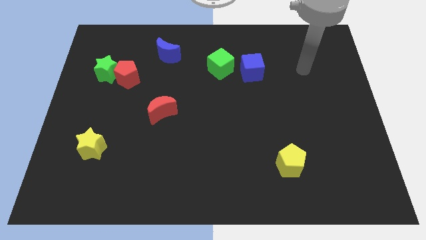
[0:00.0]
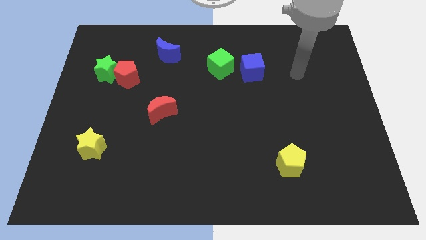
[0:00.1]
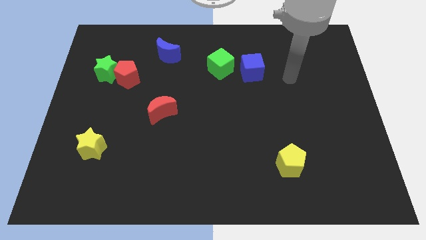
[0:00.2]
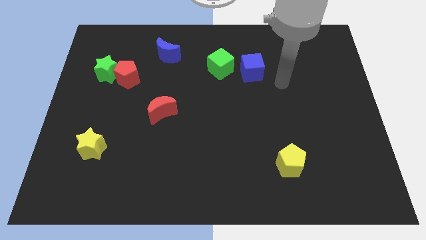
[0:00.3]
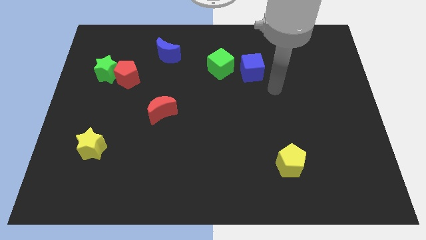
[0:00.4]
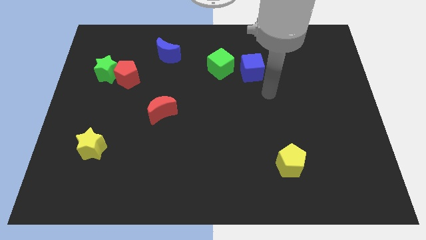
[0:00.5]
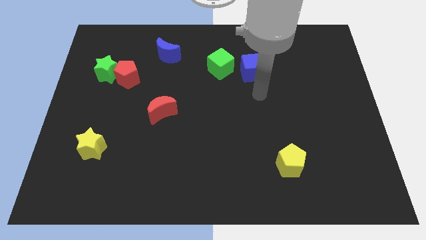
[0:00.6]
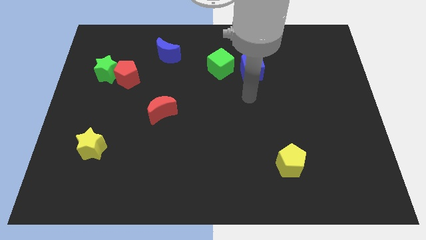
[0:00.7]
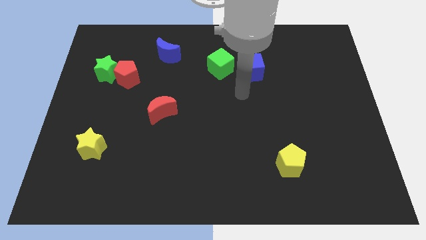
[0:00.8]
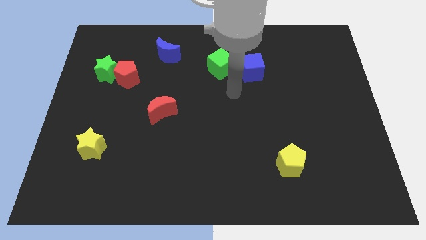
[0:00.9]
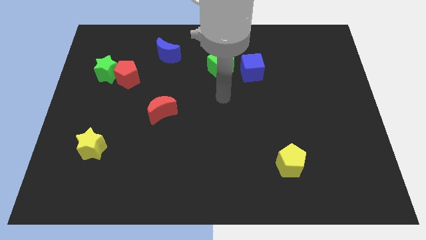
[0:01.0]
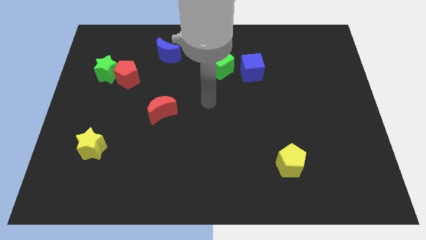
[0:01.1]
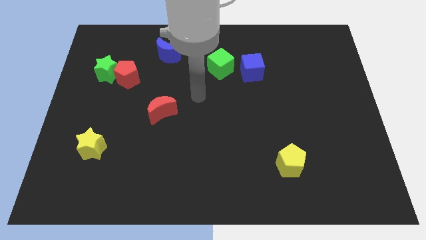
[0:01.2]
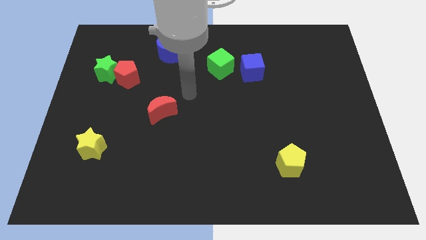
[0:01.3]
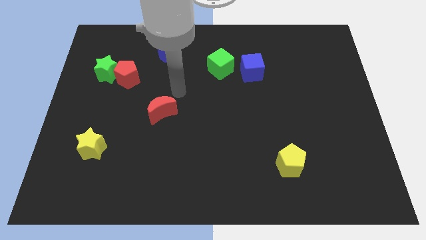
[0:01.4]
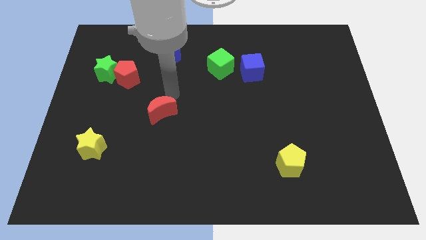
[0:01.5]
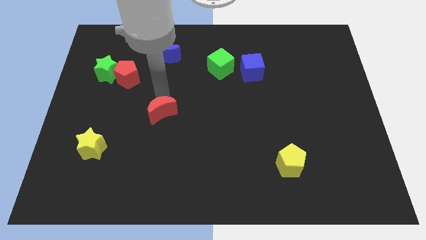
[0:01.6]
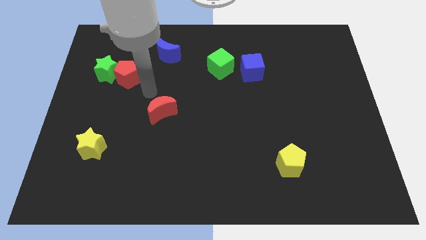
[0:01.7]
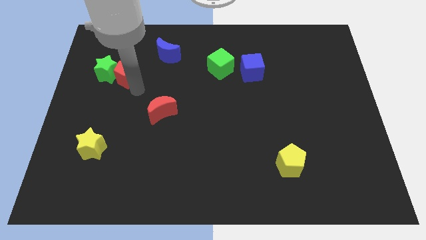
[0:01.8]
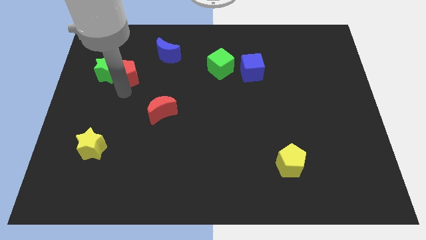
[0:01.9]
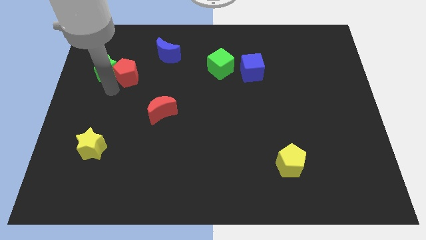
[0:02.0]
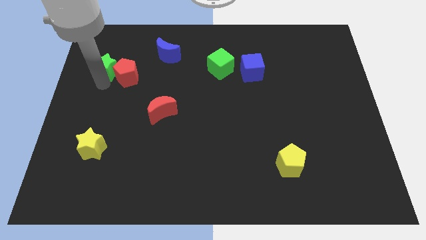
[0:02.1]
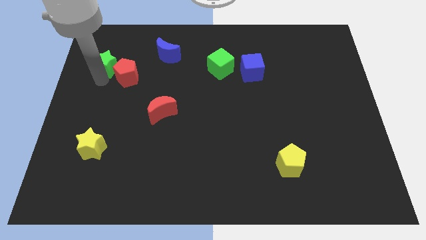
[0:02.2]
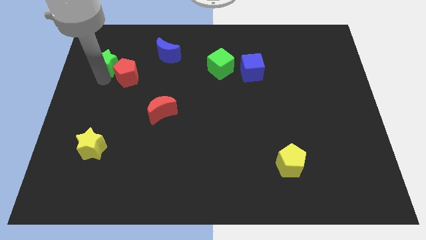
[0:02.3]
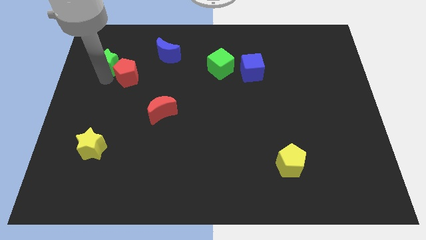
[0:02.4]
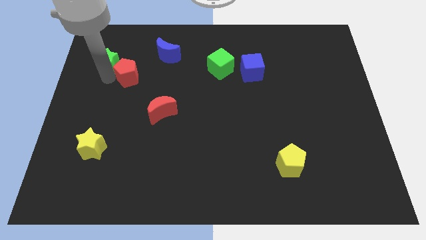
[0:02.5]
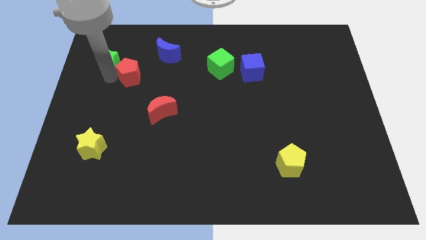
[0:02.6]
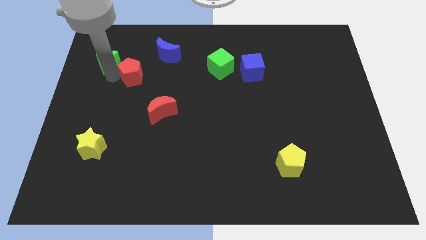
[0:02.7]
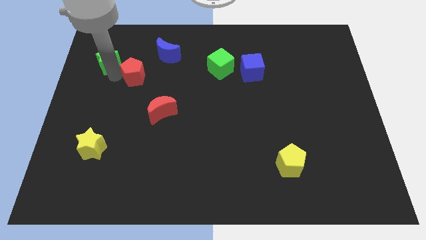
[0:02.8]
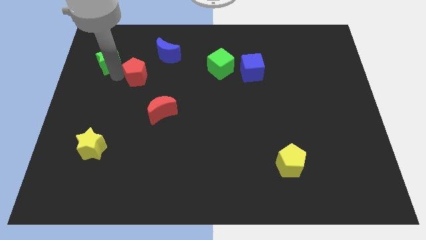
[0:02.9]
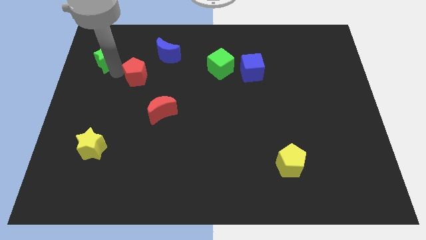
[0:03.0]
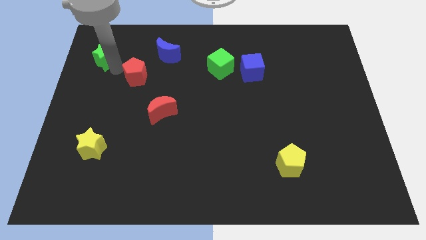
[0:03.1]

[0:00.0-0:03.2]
move the red pentagon away from the green star

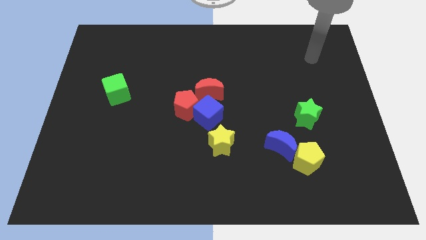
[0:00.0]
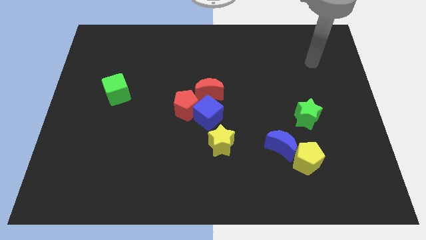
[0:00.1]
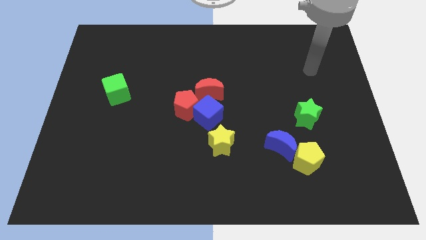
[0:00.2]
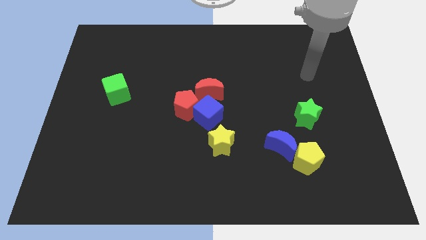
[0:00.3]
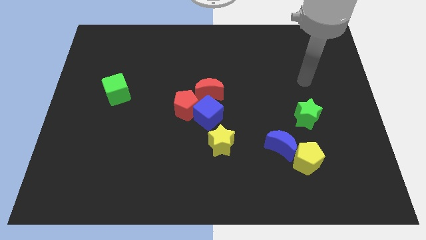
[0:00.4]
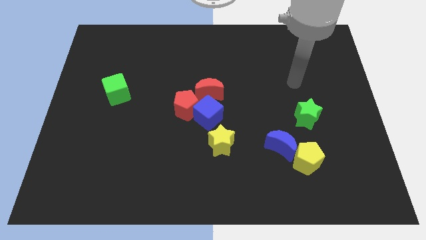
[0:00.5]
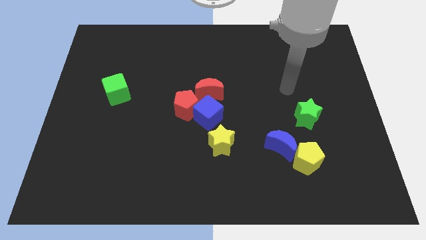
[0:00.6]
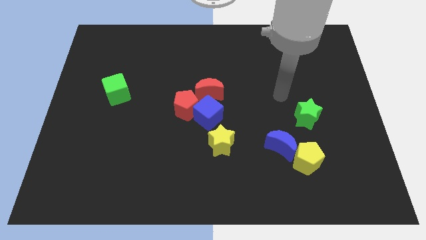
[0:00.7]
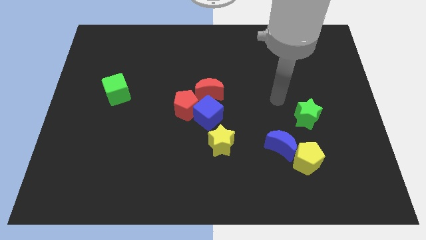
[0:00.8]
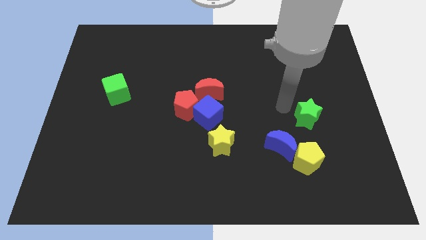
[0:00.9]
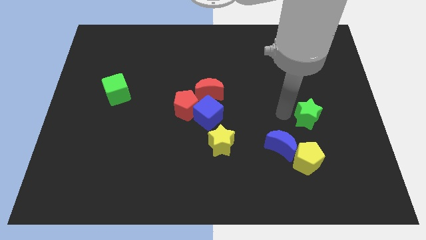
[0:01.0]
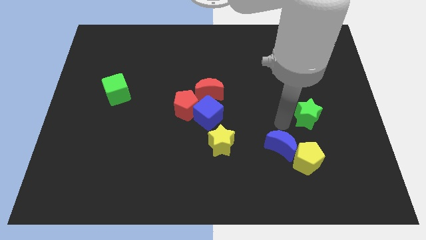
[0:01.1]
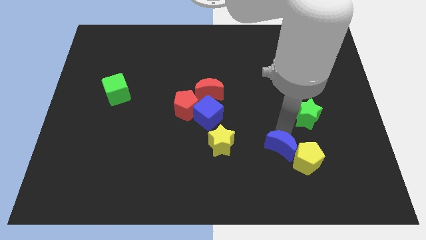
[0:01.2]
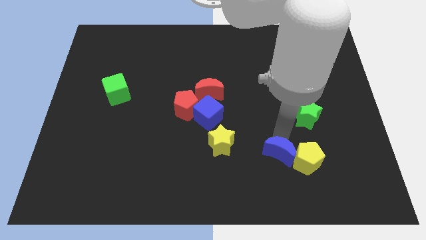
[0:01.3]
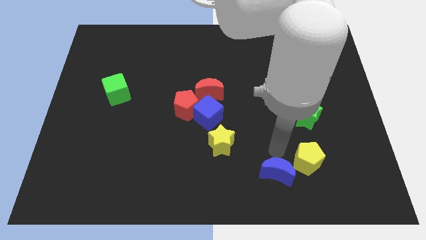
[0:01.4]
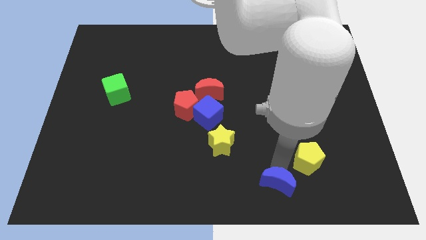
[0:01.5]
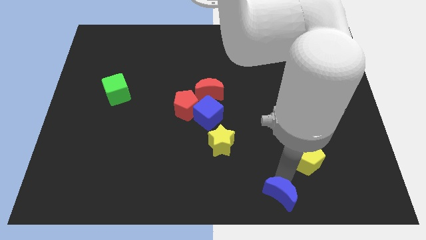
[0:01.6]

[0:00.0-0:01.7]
move the yellow pentagon away from the blue moon

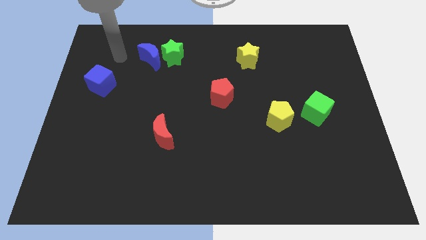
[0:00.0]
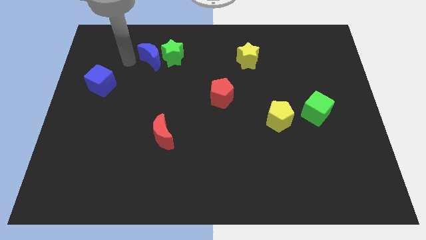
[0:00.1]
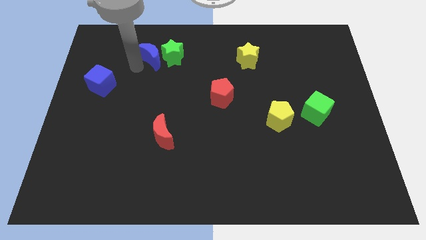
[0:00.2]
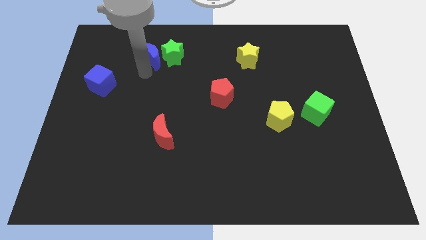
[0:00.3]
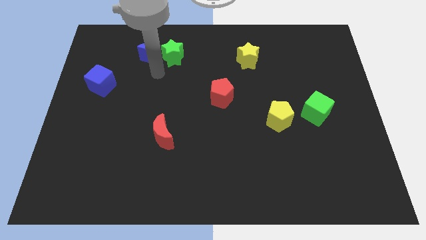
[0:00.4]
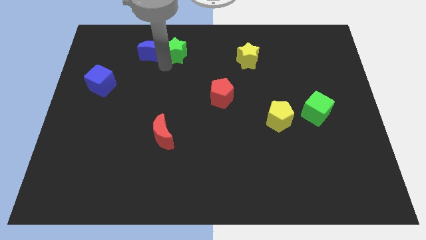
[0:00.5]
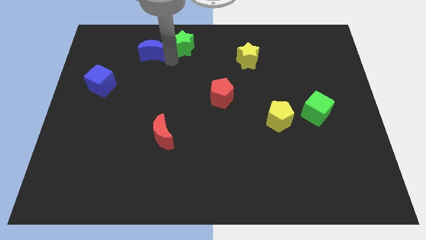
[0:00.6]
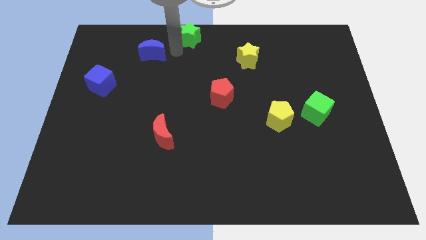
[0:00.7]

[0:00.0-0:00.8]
pull the blue moon apart from the green star

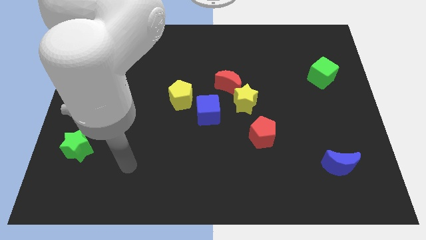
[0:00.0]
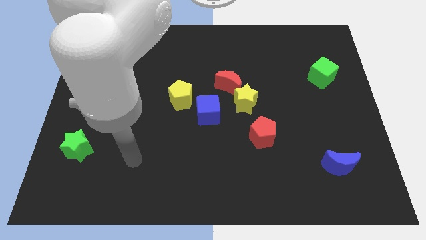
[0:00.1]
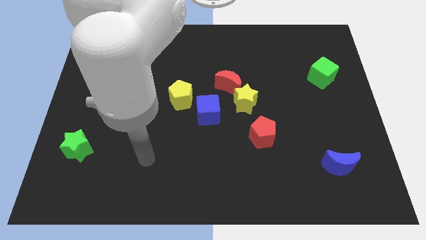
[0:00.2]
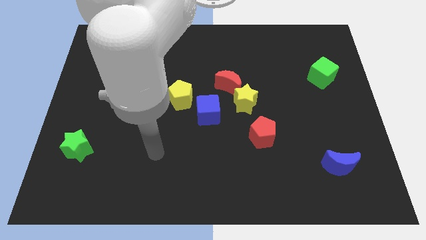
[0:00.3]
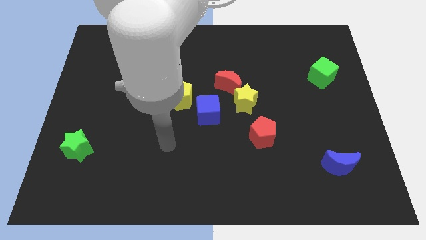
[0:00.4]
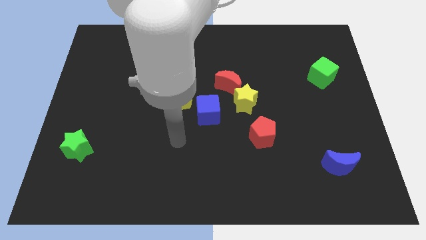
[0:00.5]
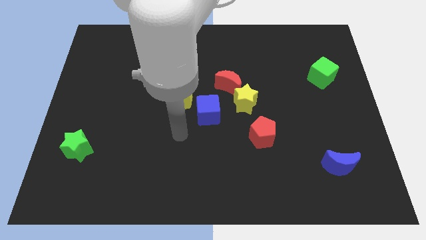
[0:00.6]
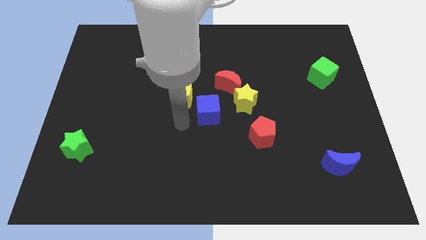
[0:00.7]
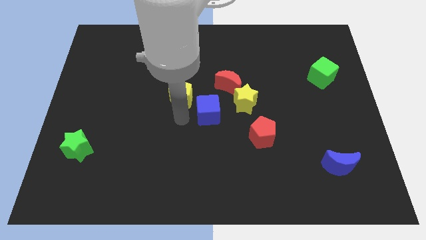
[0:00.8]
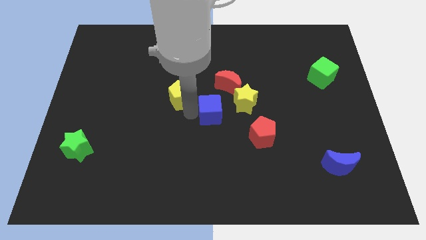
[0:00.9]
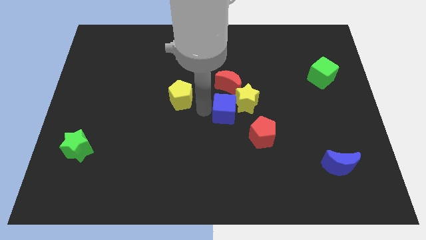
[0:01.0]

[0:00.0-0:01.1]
pull the yellow pentagon apart from the blue cube

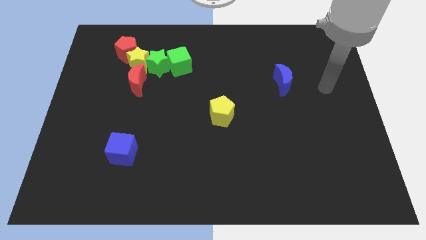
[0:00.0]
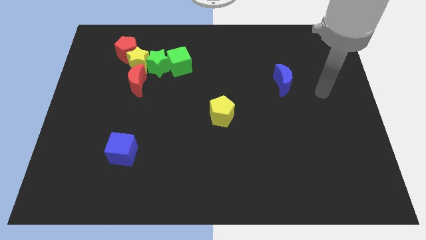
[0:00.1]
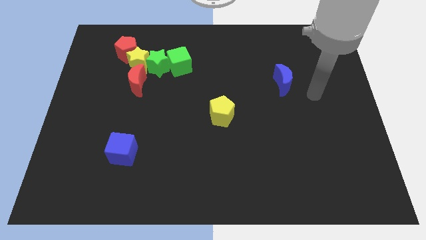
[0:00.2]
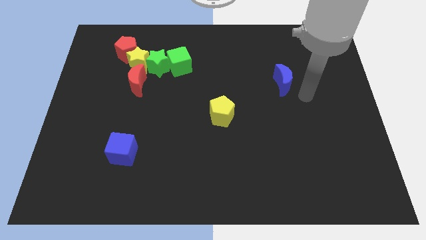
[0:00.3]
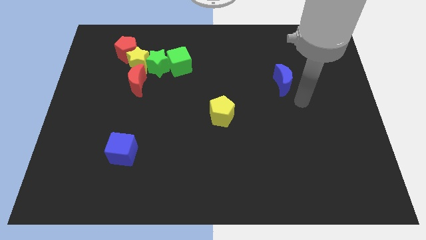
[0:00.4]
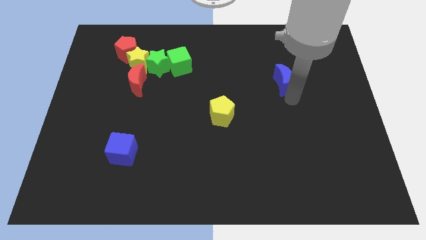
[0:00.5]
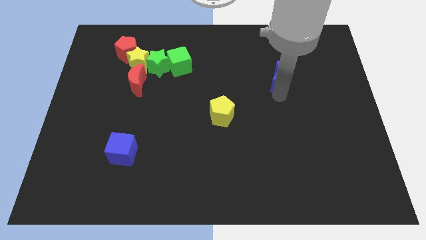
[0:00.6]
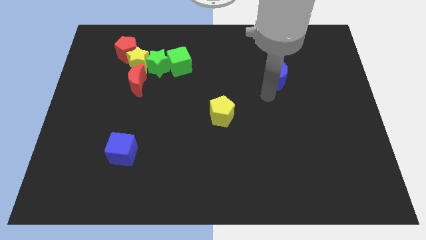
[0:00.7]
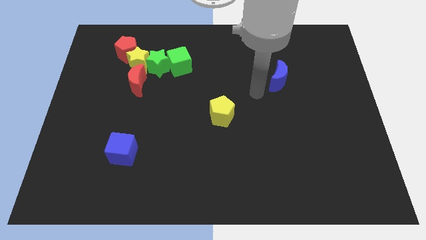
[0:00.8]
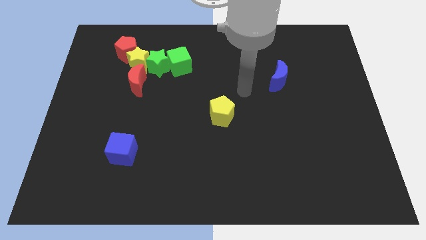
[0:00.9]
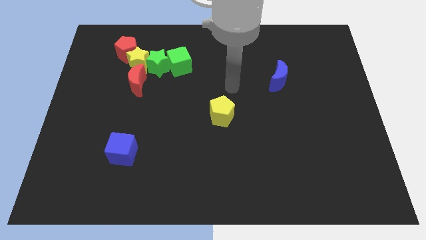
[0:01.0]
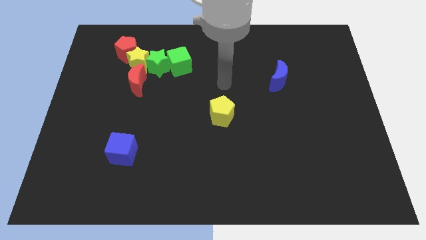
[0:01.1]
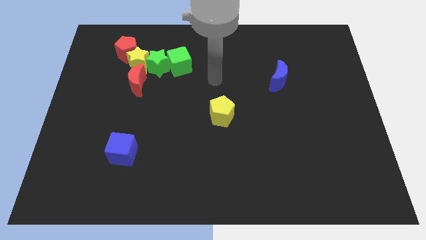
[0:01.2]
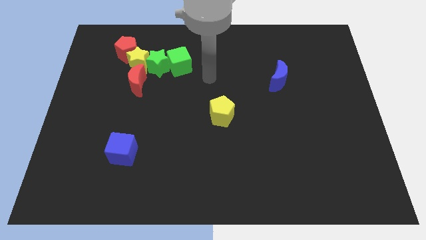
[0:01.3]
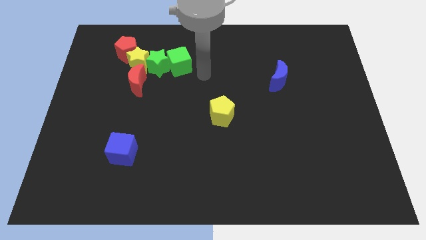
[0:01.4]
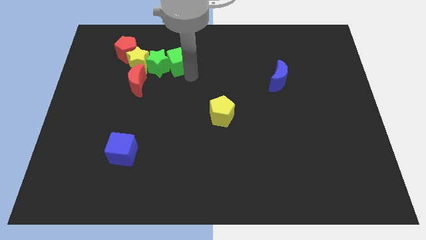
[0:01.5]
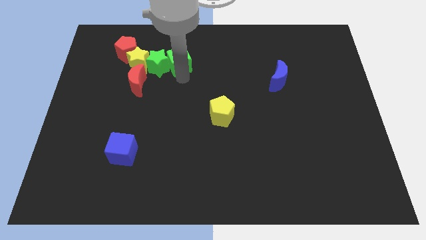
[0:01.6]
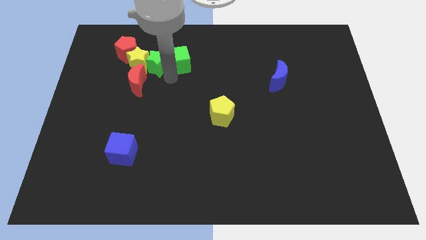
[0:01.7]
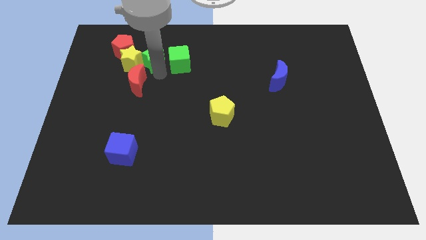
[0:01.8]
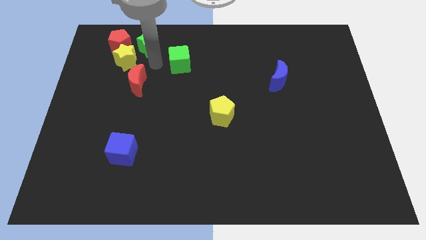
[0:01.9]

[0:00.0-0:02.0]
move the green cube away from the green star

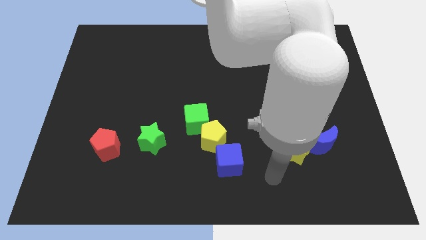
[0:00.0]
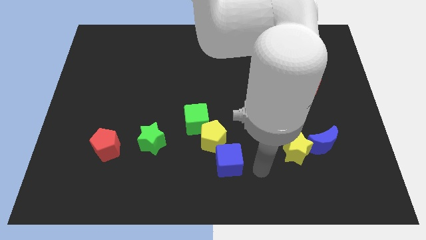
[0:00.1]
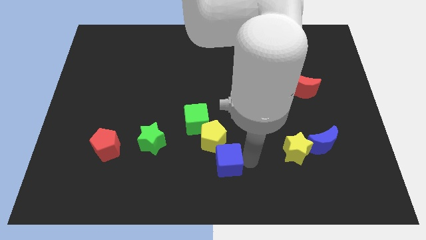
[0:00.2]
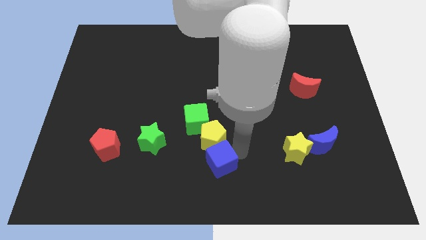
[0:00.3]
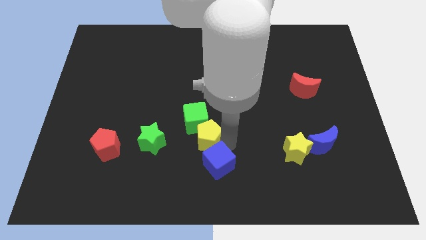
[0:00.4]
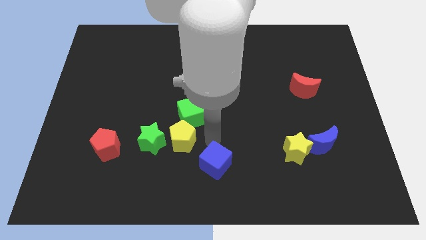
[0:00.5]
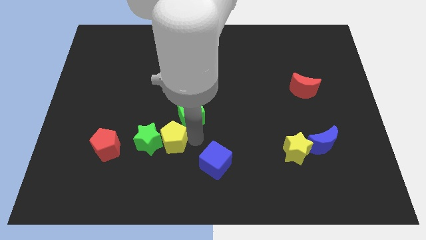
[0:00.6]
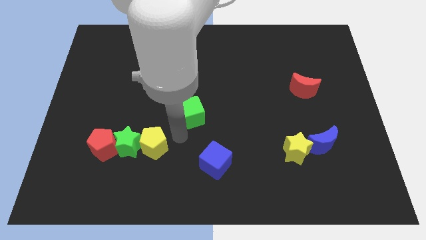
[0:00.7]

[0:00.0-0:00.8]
separate the green cube from the yellow pentagon
